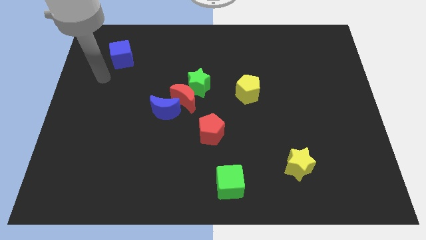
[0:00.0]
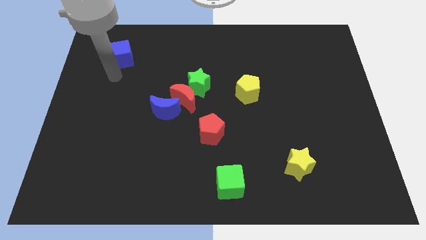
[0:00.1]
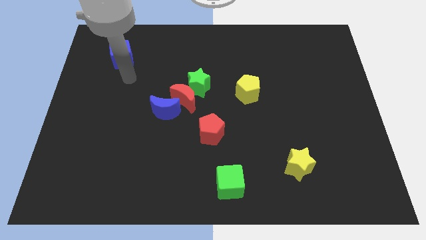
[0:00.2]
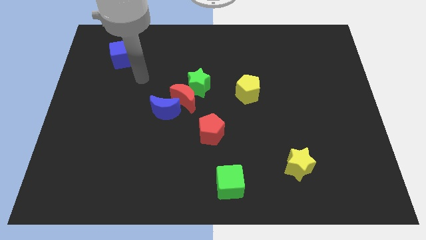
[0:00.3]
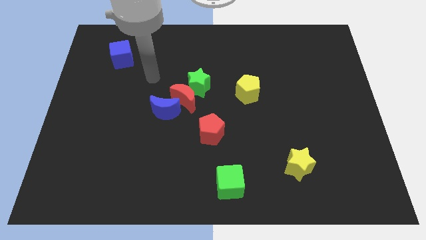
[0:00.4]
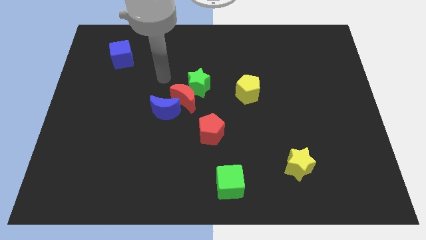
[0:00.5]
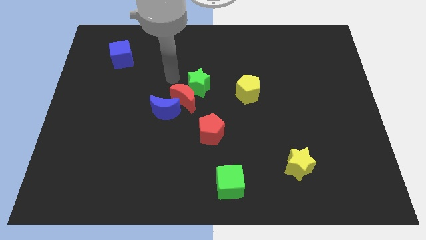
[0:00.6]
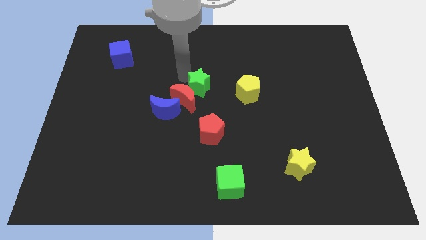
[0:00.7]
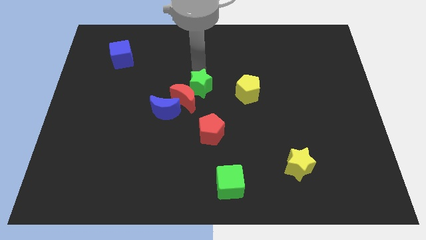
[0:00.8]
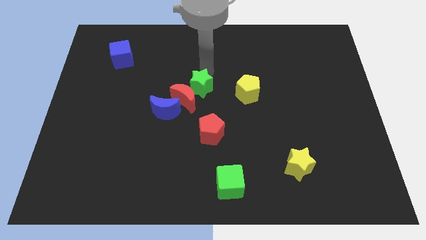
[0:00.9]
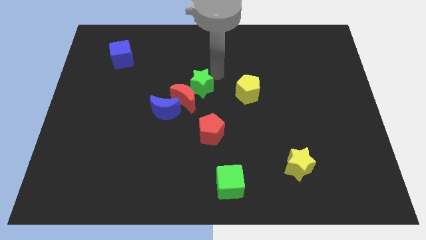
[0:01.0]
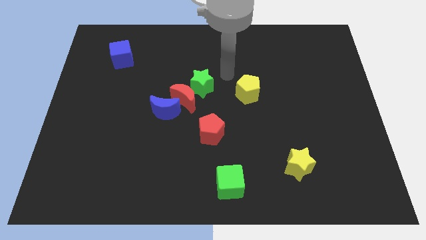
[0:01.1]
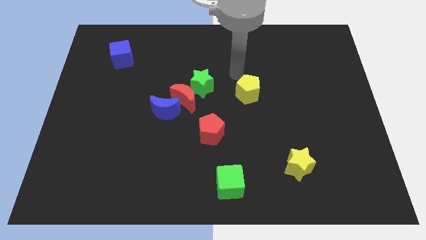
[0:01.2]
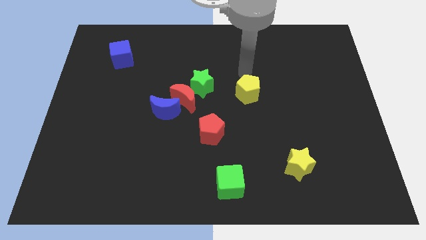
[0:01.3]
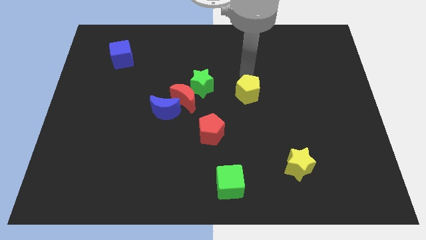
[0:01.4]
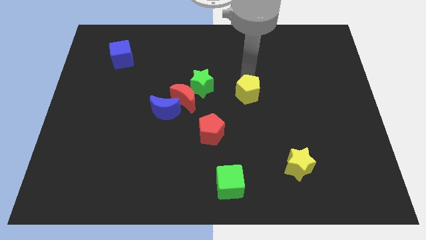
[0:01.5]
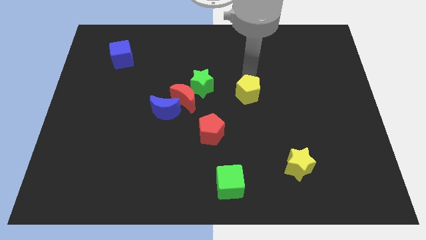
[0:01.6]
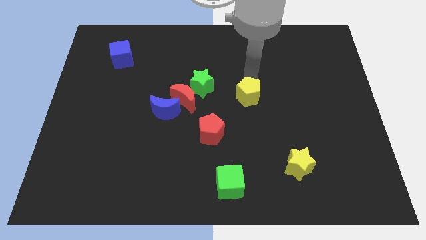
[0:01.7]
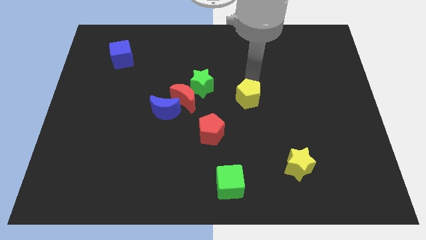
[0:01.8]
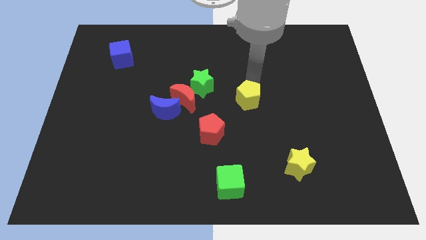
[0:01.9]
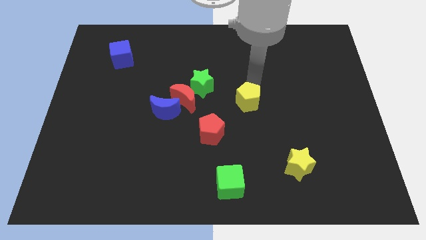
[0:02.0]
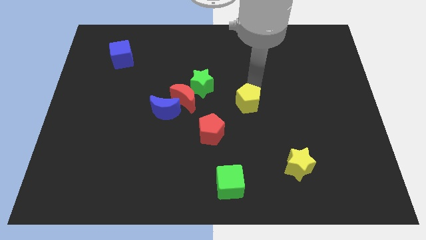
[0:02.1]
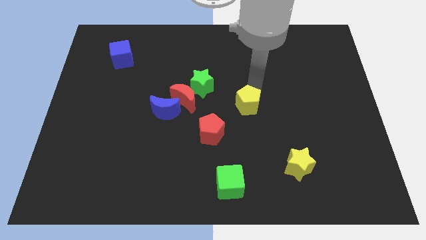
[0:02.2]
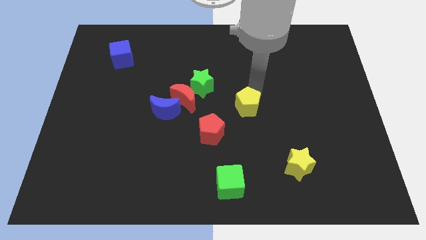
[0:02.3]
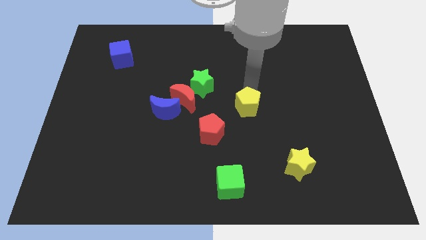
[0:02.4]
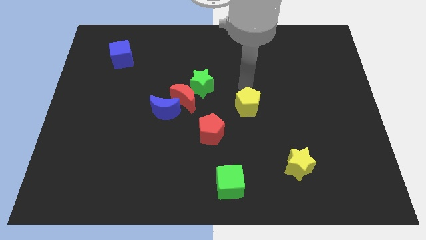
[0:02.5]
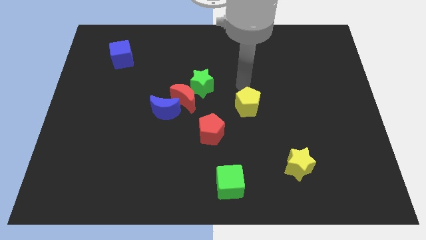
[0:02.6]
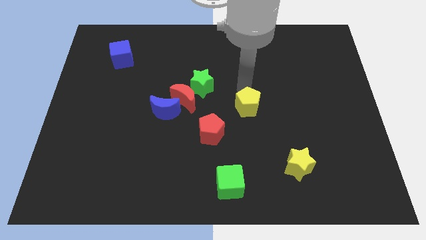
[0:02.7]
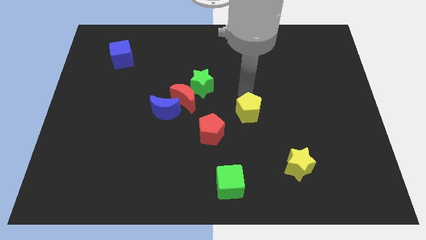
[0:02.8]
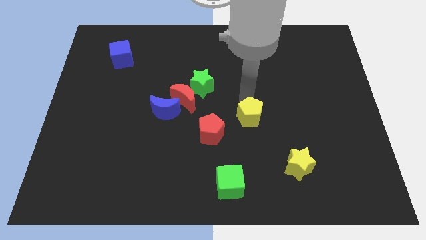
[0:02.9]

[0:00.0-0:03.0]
move the yellow pentagon down a little bit

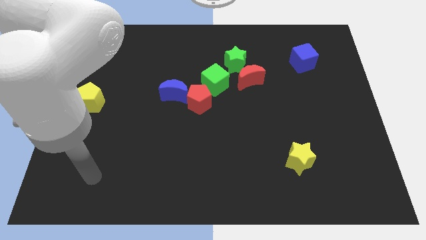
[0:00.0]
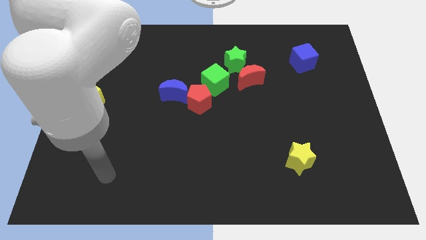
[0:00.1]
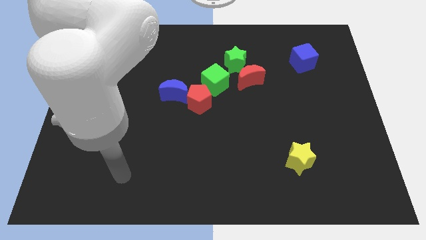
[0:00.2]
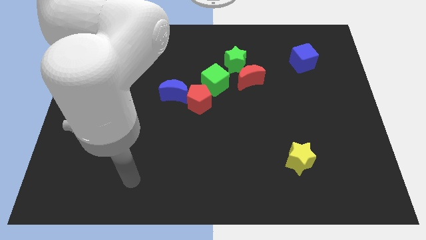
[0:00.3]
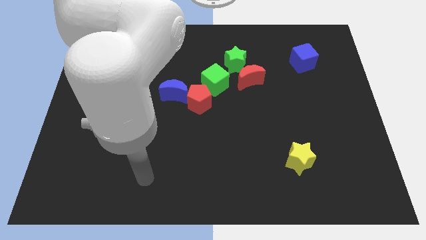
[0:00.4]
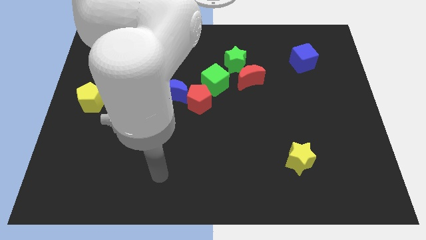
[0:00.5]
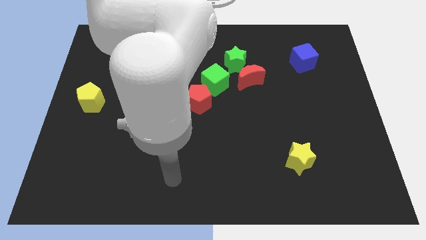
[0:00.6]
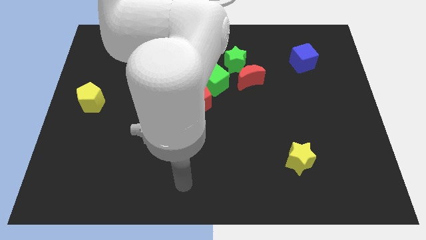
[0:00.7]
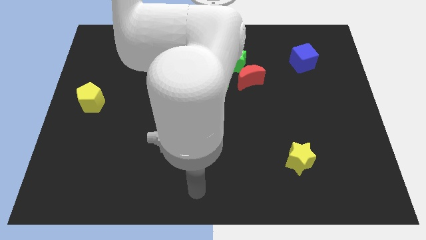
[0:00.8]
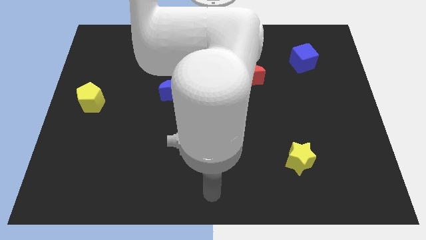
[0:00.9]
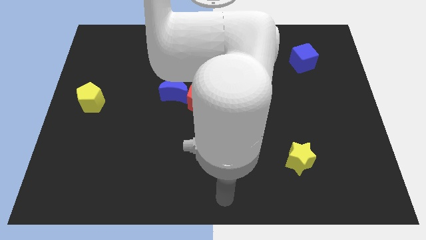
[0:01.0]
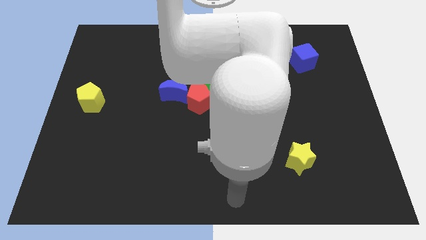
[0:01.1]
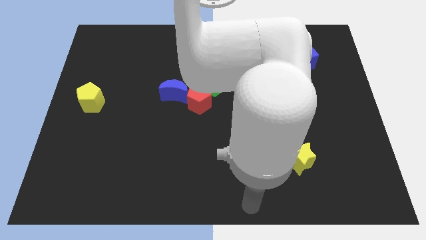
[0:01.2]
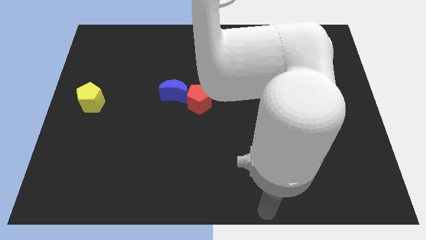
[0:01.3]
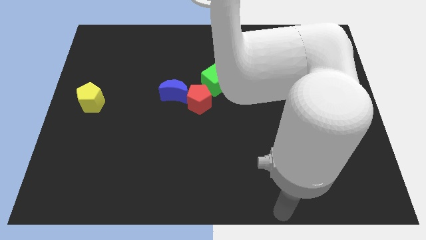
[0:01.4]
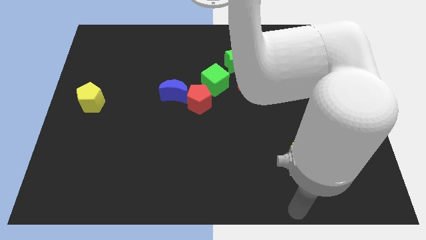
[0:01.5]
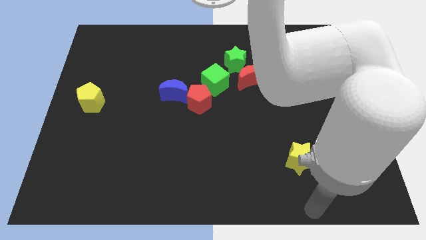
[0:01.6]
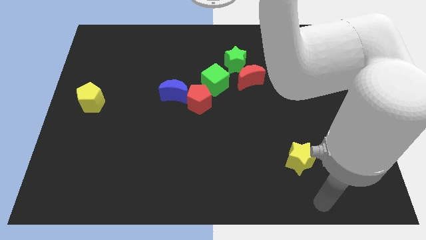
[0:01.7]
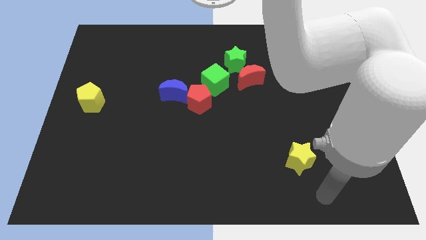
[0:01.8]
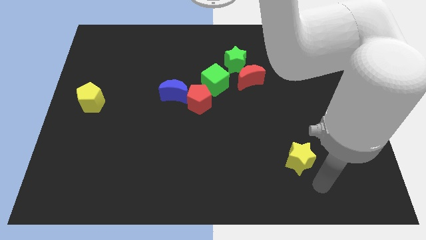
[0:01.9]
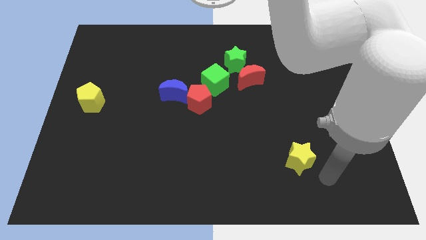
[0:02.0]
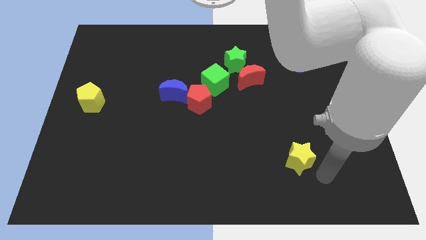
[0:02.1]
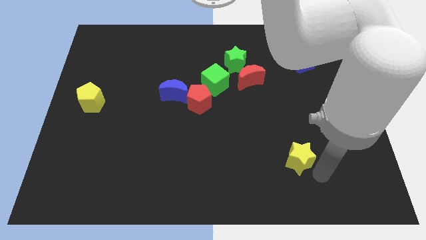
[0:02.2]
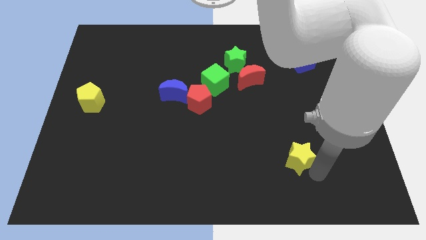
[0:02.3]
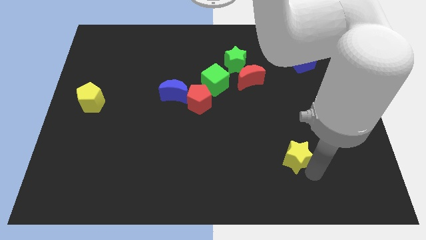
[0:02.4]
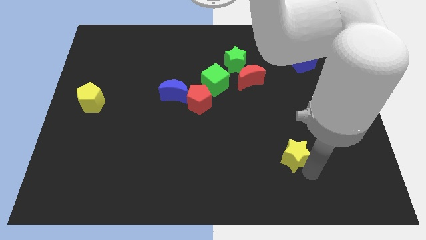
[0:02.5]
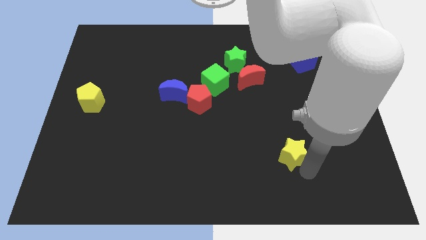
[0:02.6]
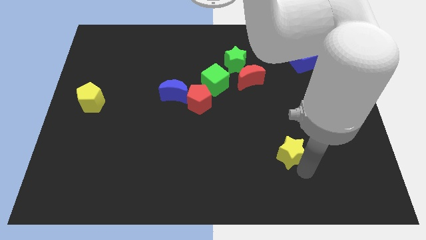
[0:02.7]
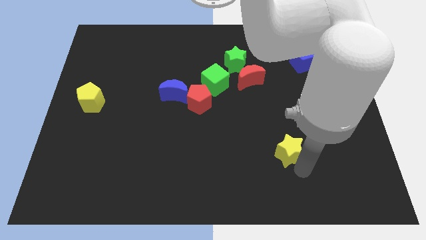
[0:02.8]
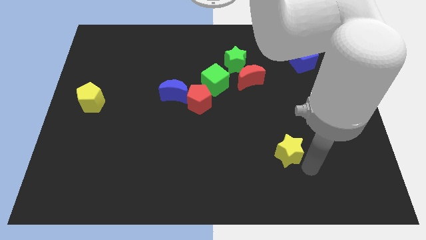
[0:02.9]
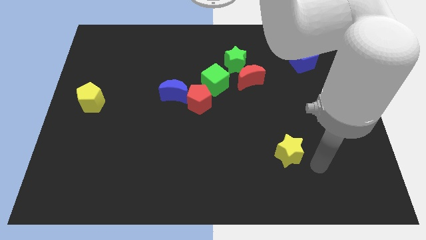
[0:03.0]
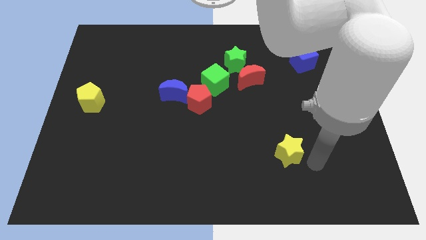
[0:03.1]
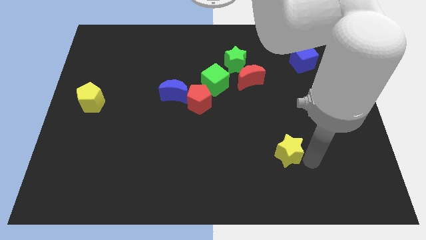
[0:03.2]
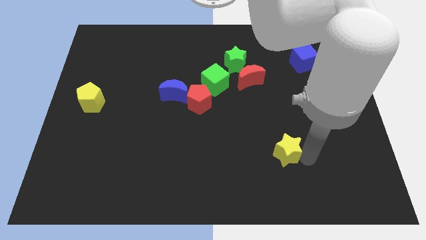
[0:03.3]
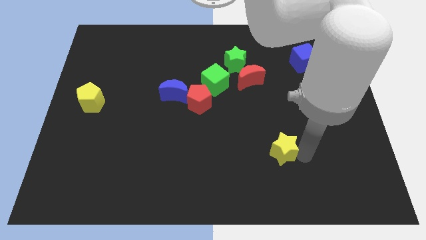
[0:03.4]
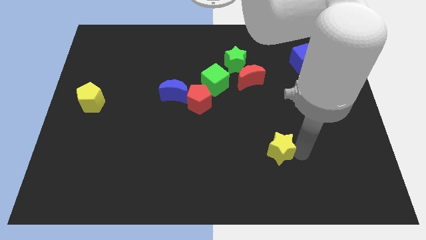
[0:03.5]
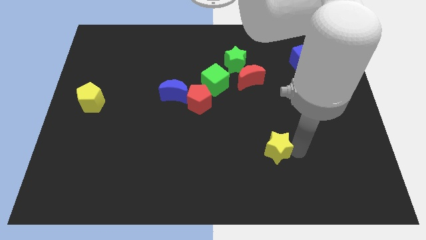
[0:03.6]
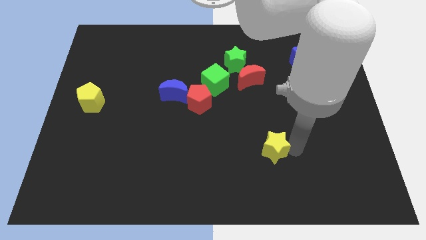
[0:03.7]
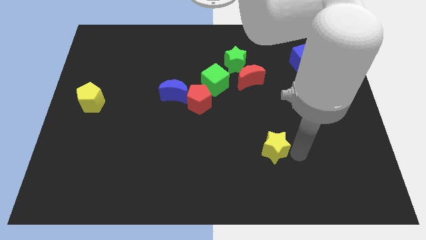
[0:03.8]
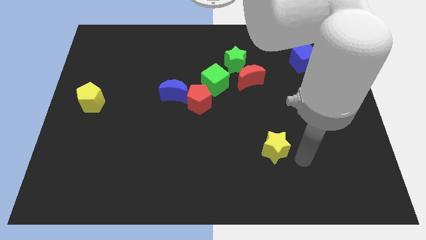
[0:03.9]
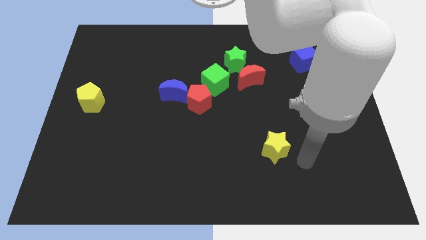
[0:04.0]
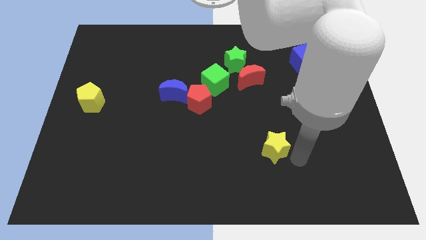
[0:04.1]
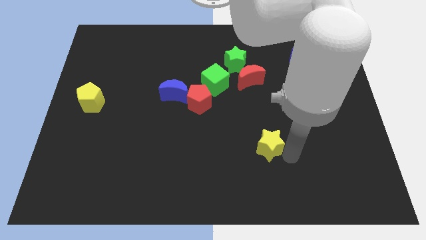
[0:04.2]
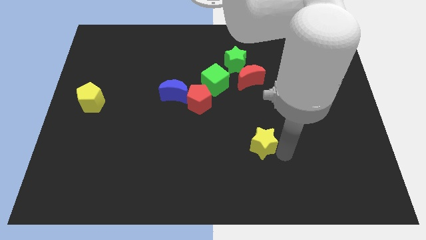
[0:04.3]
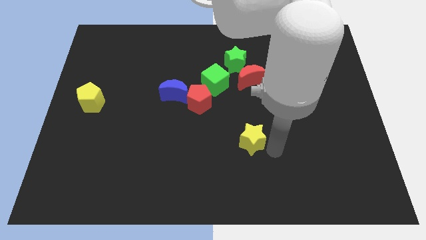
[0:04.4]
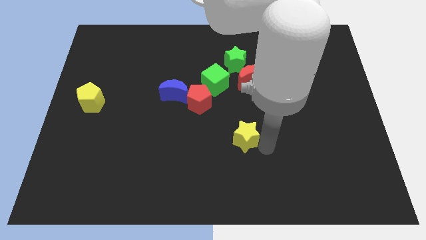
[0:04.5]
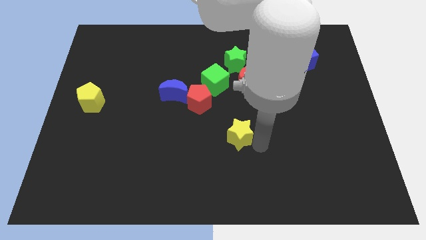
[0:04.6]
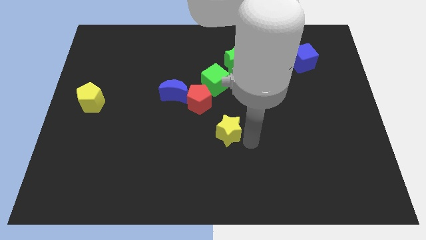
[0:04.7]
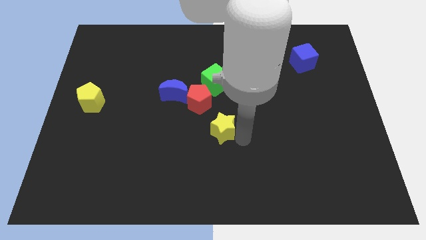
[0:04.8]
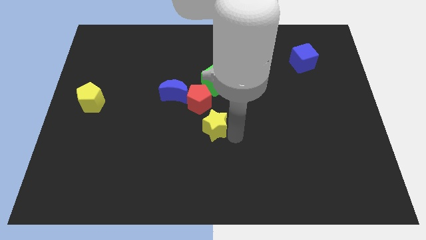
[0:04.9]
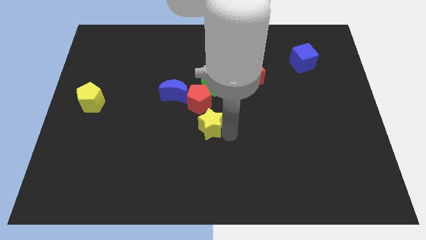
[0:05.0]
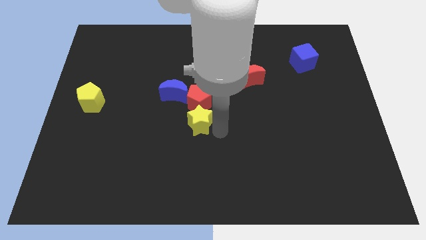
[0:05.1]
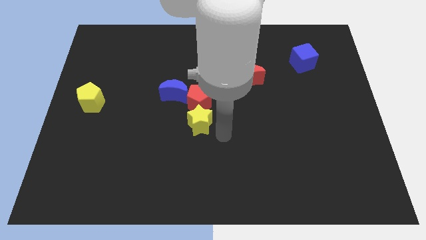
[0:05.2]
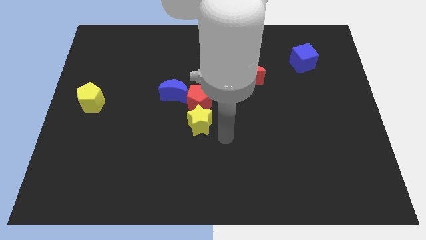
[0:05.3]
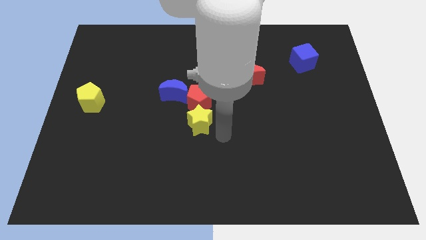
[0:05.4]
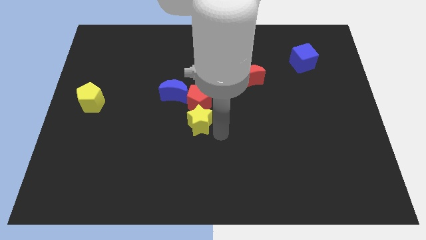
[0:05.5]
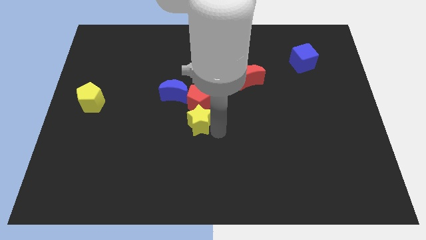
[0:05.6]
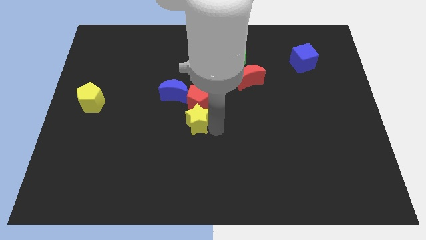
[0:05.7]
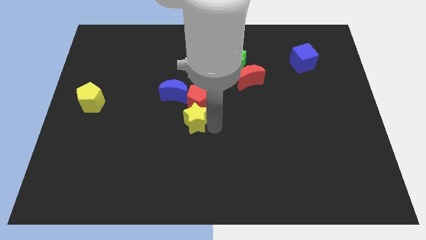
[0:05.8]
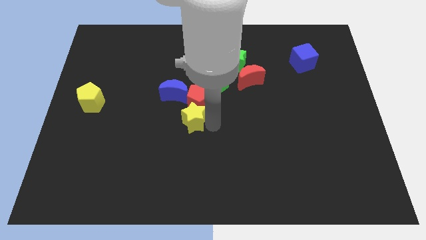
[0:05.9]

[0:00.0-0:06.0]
move the yellow star diagonally up and left
